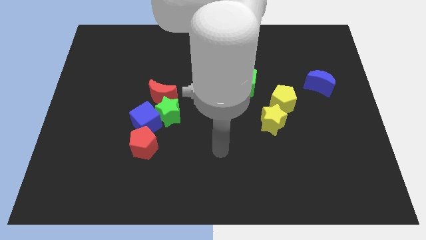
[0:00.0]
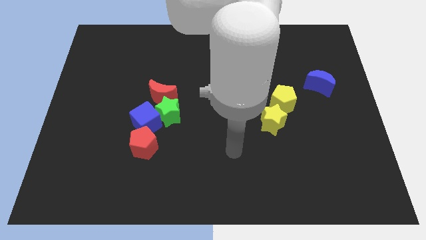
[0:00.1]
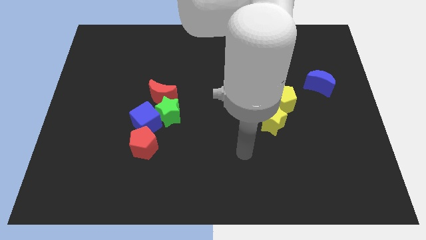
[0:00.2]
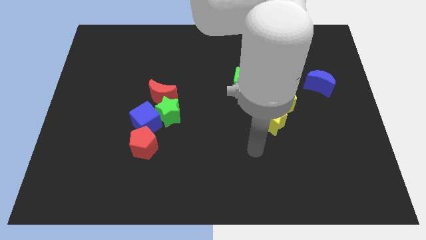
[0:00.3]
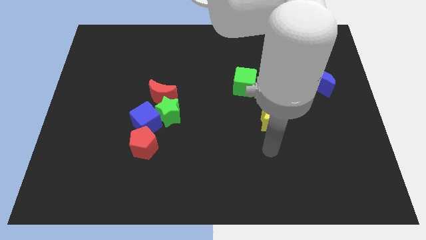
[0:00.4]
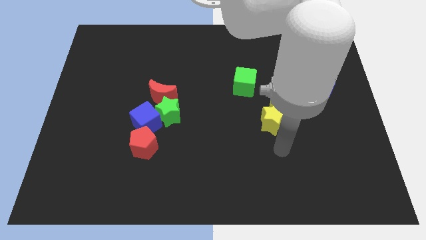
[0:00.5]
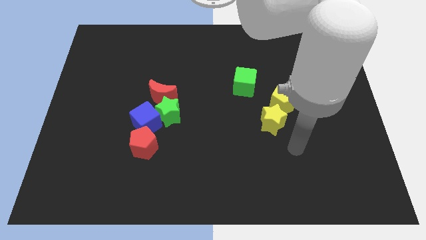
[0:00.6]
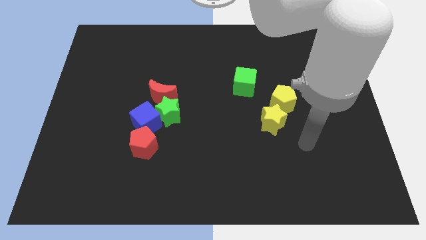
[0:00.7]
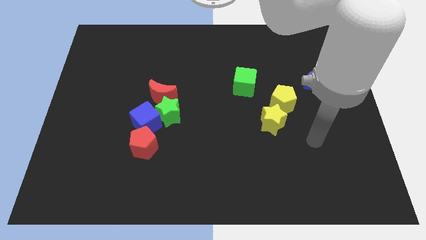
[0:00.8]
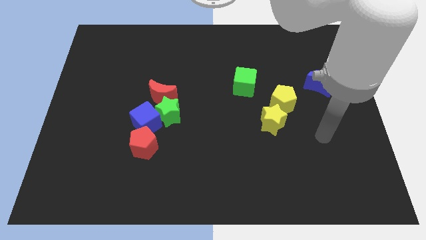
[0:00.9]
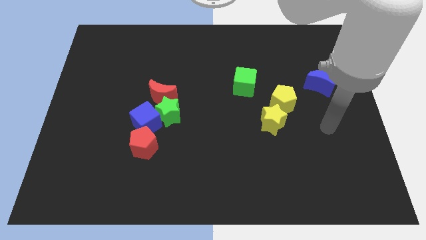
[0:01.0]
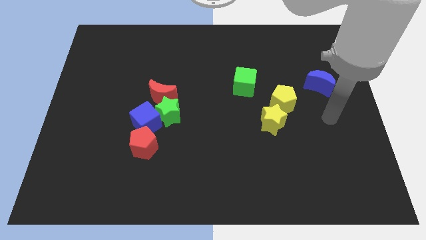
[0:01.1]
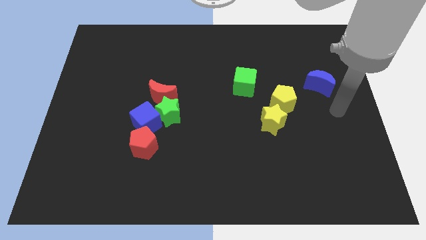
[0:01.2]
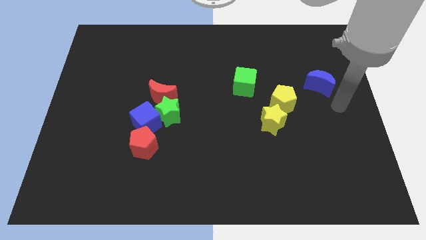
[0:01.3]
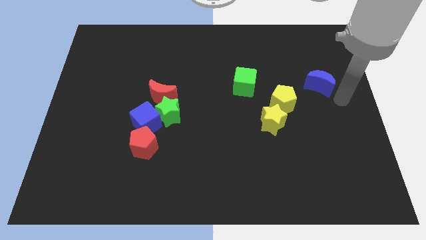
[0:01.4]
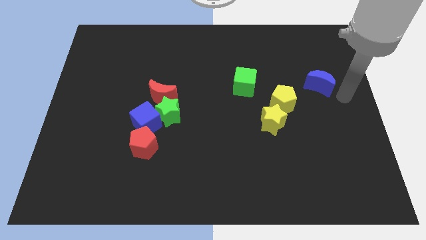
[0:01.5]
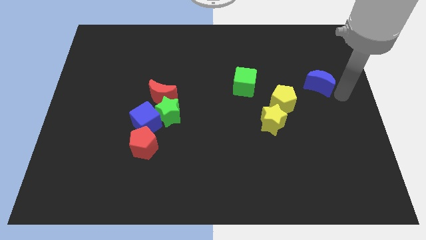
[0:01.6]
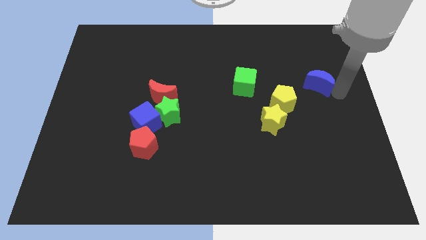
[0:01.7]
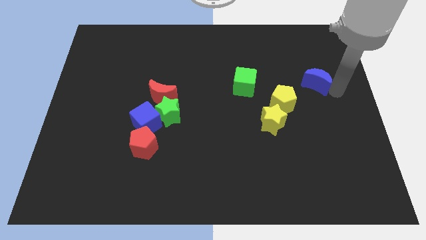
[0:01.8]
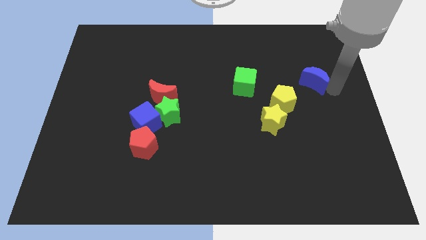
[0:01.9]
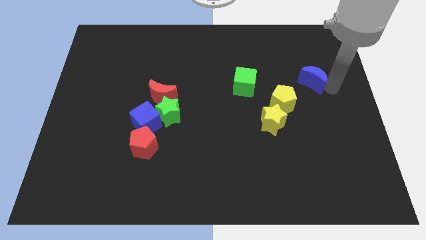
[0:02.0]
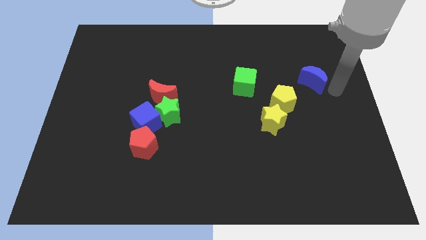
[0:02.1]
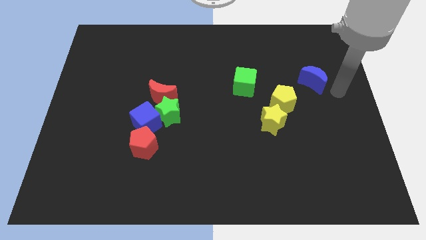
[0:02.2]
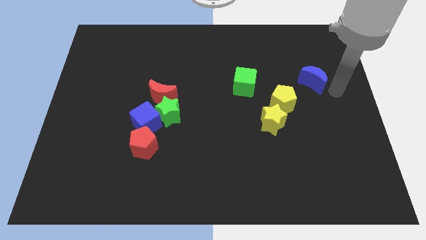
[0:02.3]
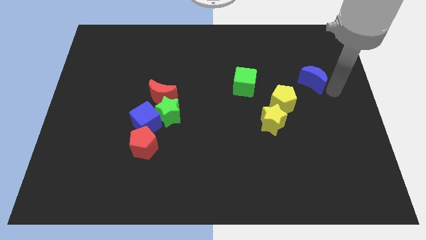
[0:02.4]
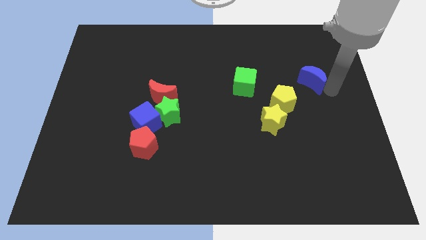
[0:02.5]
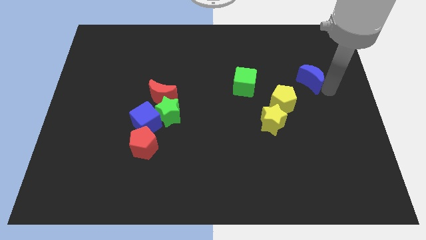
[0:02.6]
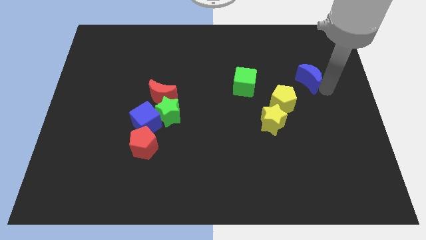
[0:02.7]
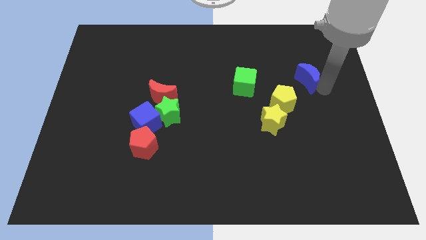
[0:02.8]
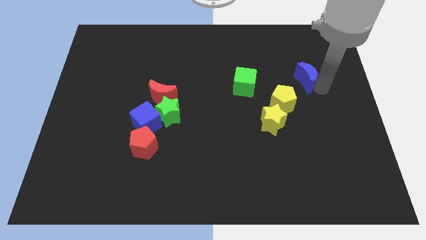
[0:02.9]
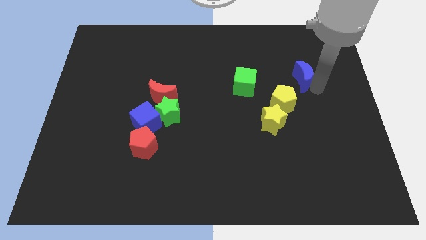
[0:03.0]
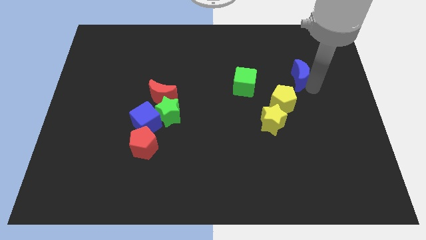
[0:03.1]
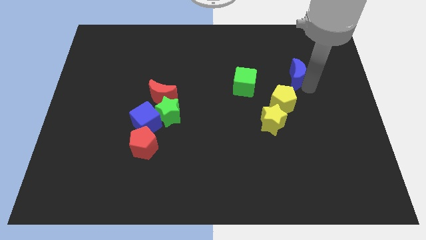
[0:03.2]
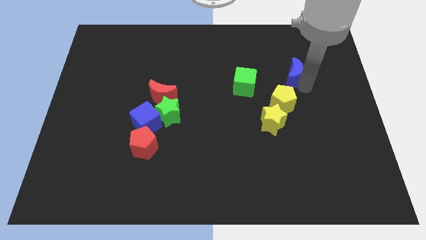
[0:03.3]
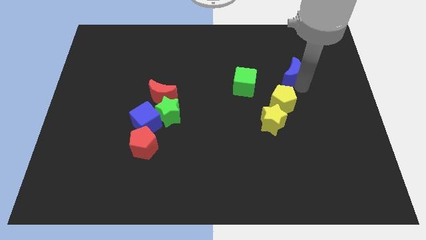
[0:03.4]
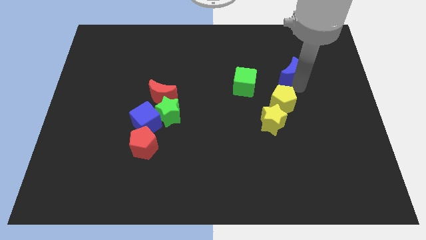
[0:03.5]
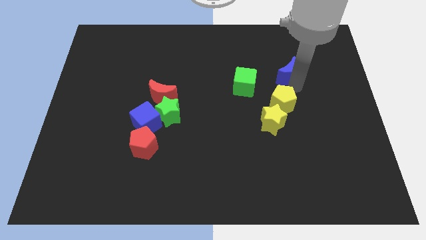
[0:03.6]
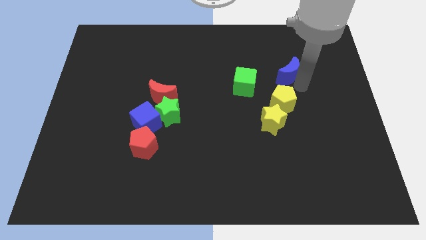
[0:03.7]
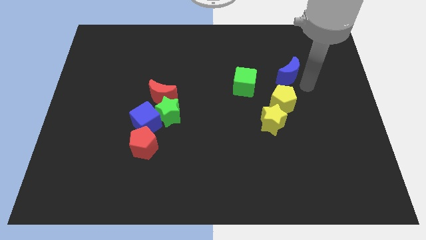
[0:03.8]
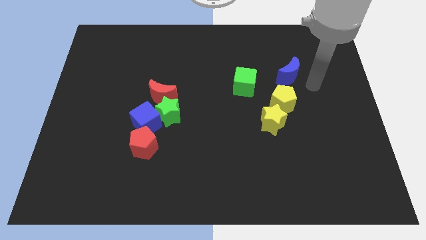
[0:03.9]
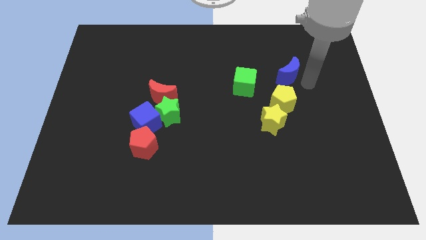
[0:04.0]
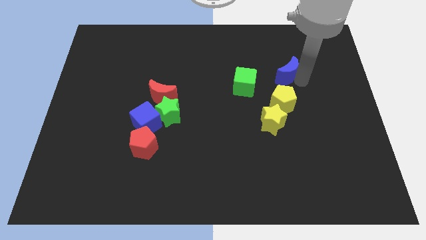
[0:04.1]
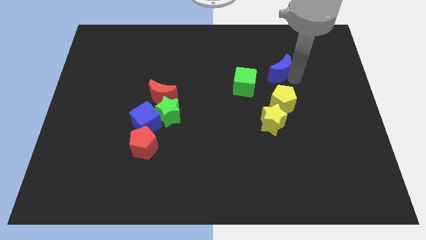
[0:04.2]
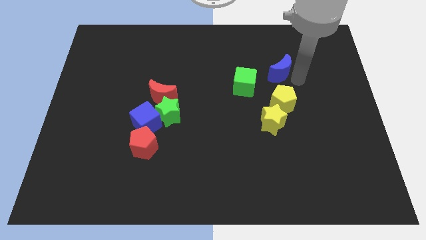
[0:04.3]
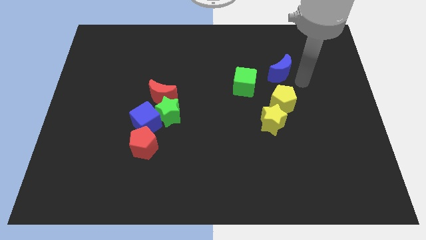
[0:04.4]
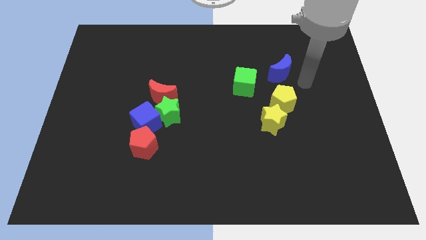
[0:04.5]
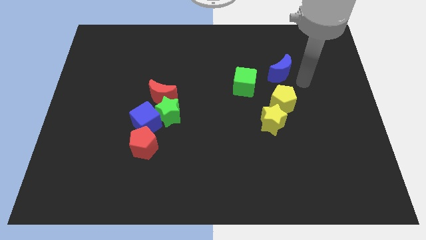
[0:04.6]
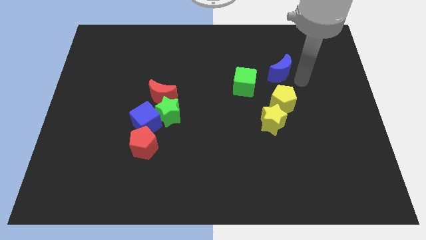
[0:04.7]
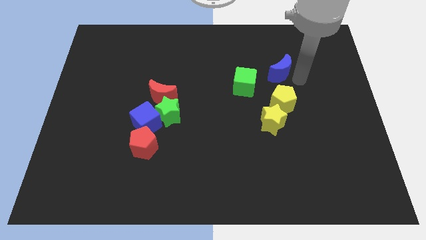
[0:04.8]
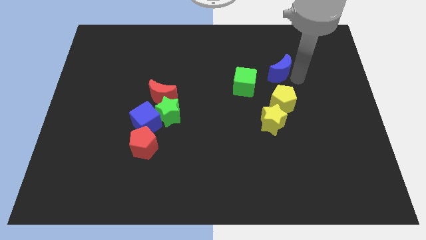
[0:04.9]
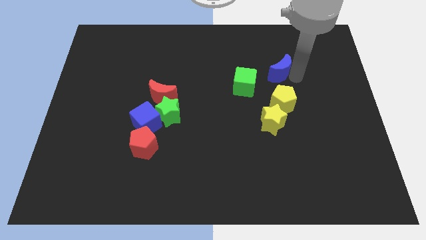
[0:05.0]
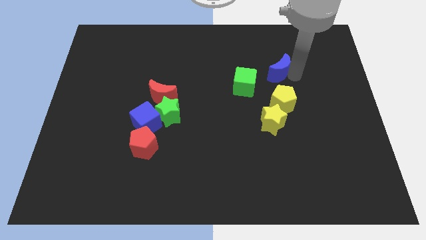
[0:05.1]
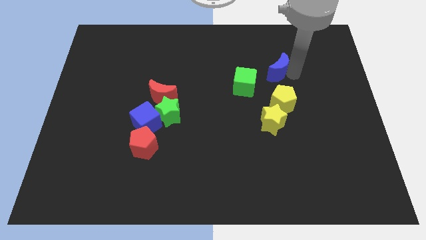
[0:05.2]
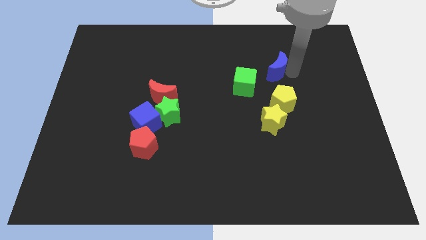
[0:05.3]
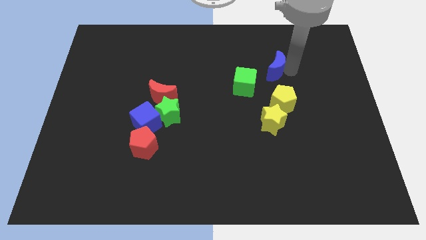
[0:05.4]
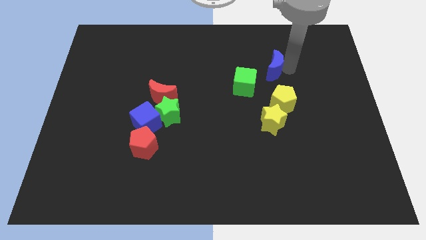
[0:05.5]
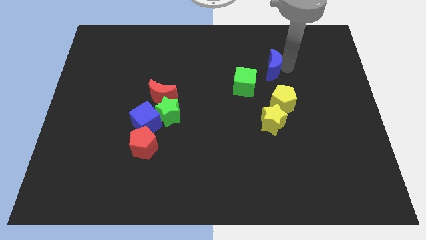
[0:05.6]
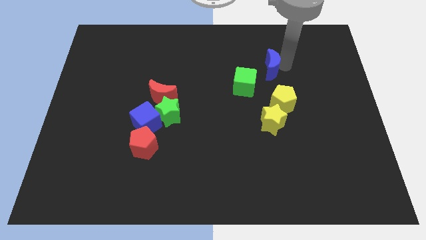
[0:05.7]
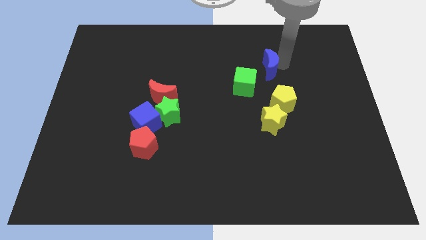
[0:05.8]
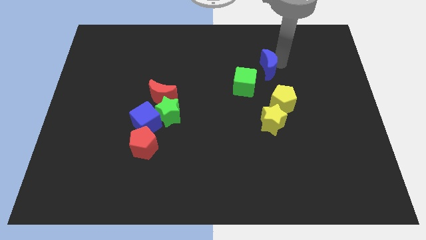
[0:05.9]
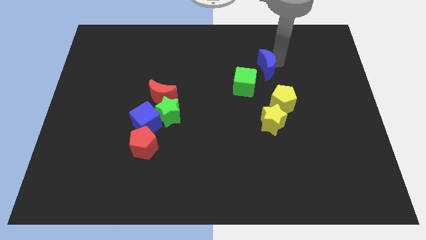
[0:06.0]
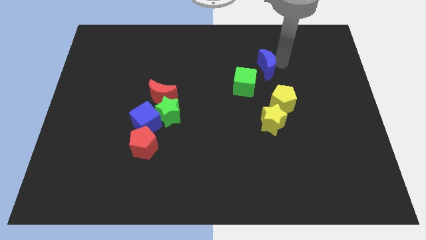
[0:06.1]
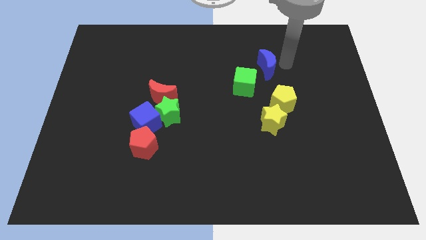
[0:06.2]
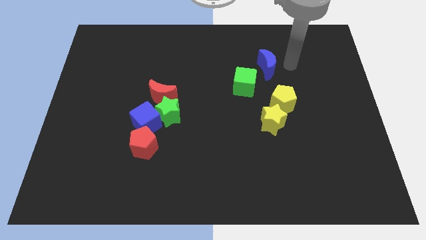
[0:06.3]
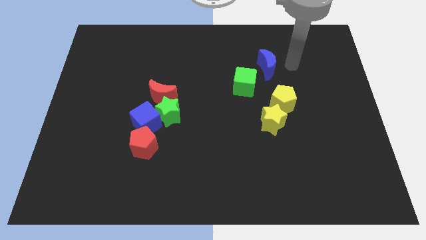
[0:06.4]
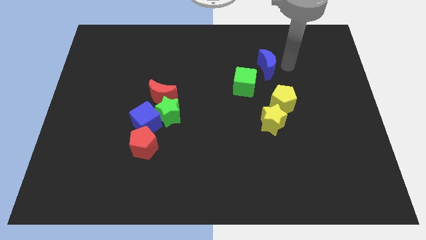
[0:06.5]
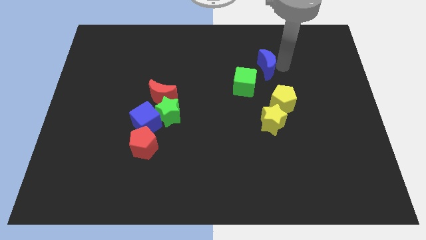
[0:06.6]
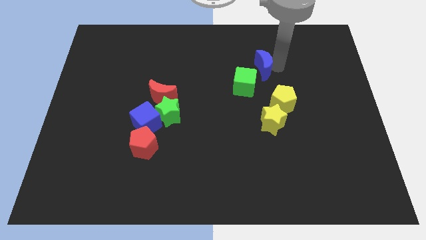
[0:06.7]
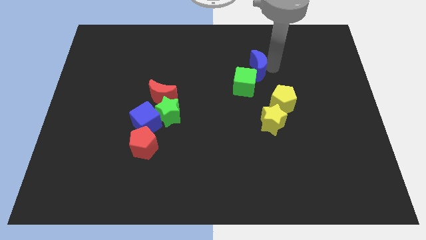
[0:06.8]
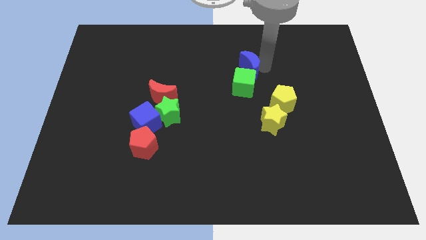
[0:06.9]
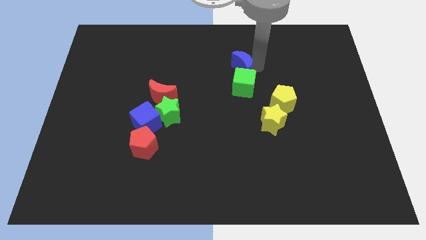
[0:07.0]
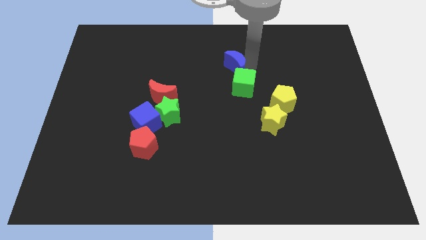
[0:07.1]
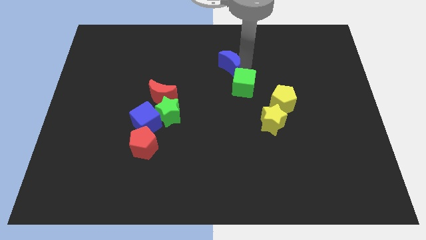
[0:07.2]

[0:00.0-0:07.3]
slide the blue moon to the left

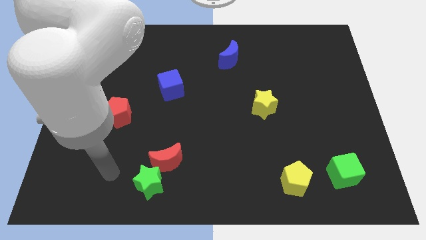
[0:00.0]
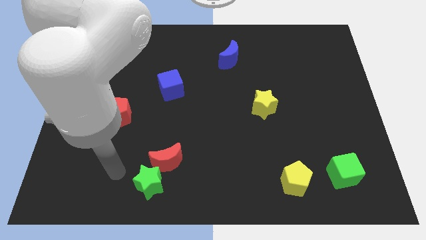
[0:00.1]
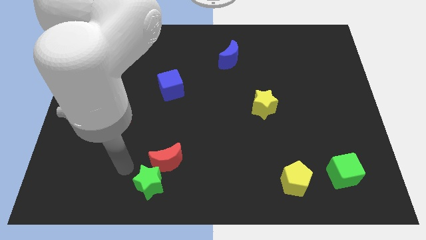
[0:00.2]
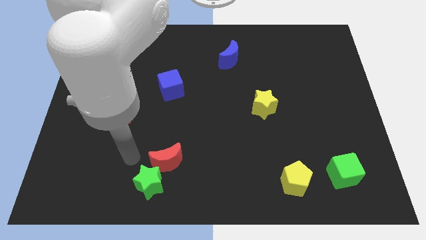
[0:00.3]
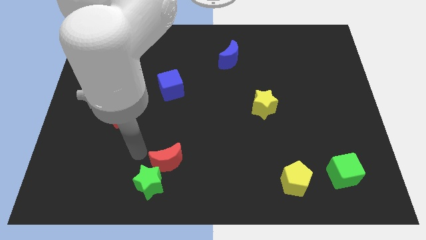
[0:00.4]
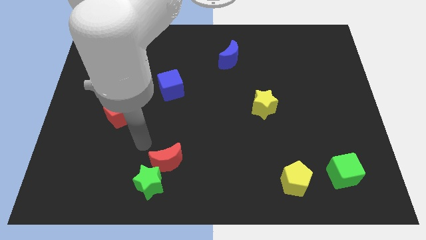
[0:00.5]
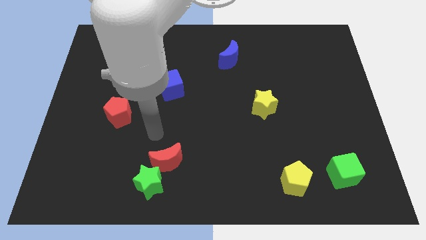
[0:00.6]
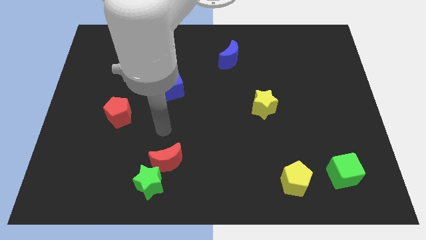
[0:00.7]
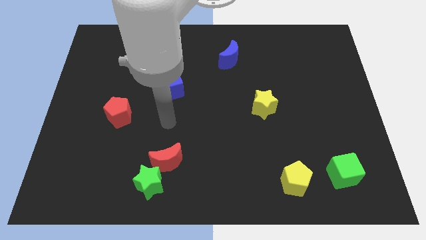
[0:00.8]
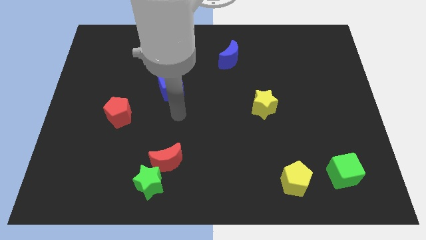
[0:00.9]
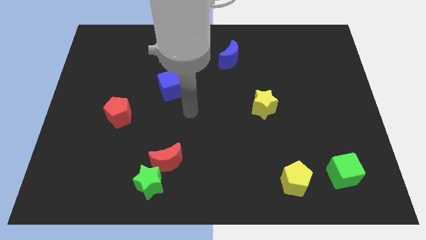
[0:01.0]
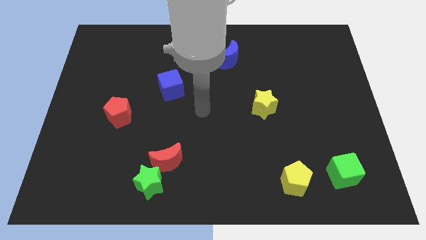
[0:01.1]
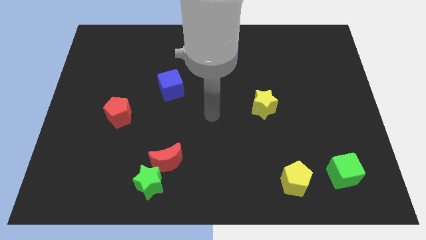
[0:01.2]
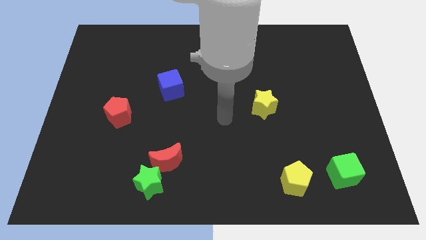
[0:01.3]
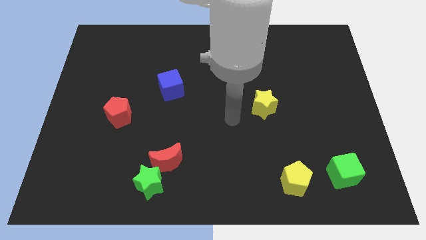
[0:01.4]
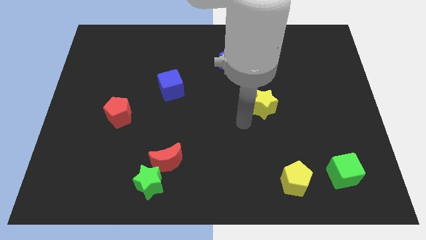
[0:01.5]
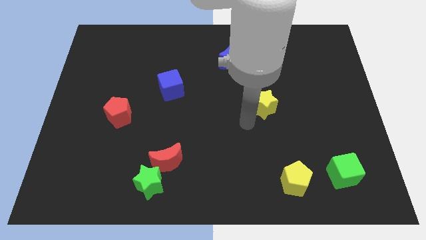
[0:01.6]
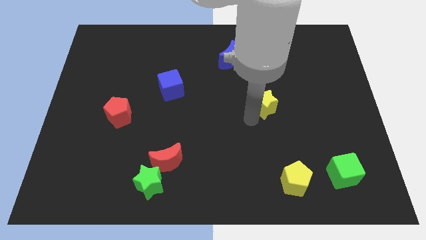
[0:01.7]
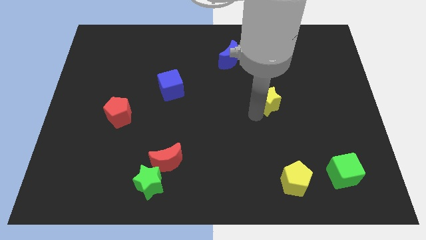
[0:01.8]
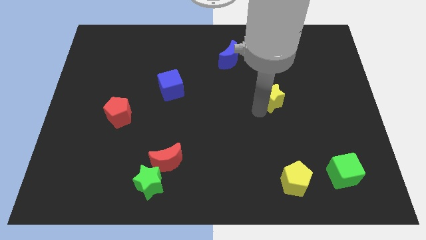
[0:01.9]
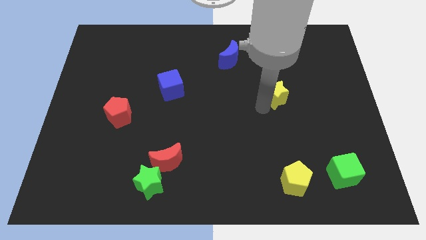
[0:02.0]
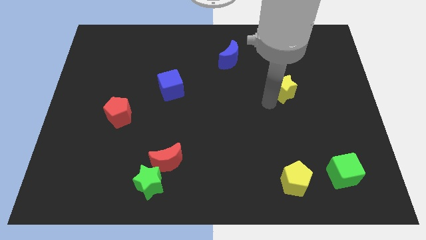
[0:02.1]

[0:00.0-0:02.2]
slide the yellow star upwards and right slightly
